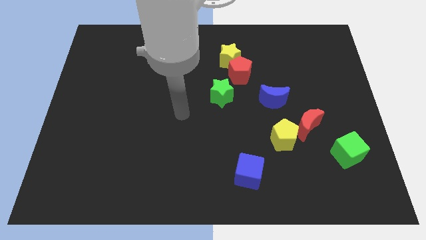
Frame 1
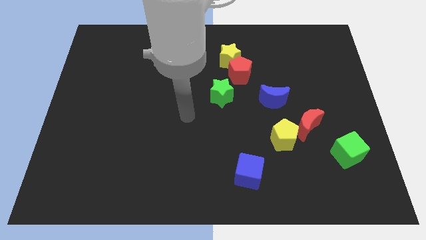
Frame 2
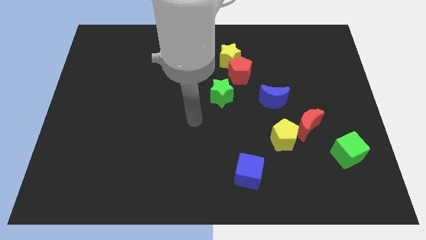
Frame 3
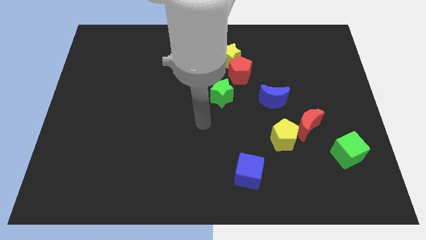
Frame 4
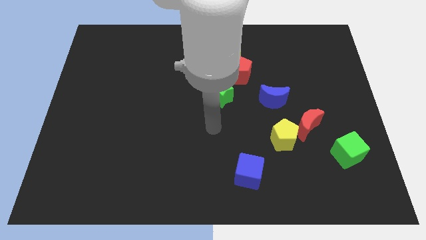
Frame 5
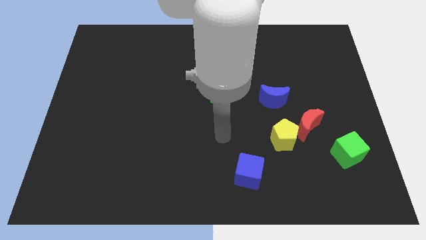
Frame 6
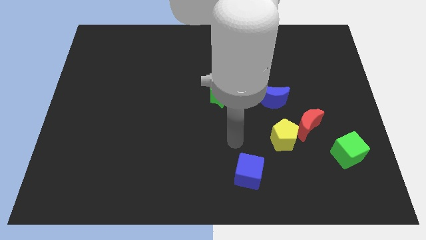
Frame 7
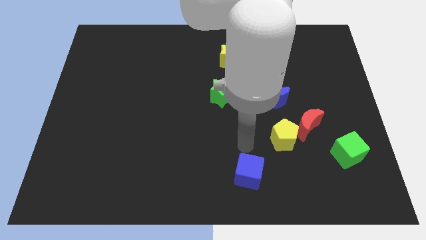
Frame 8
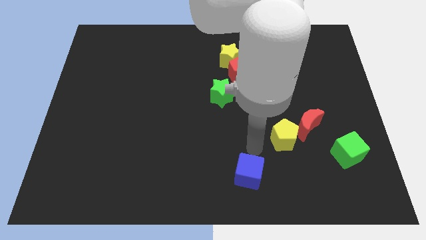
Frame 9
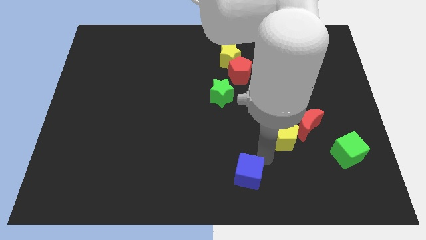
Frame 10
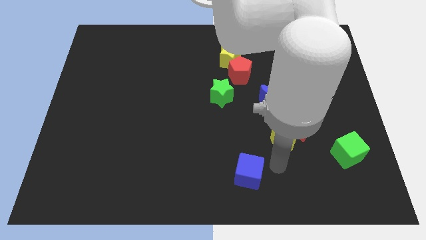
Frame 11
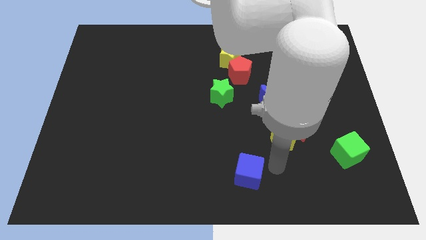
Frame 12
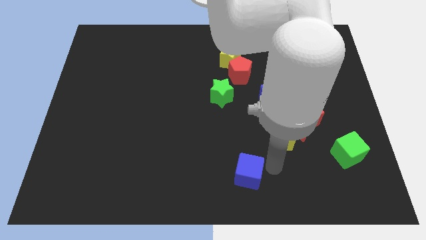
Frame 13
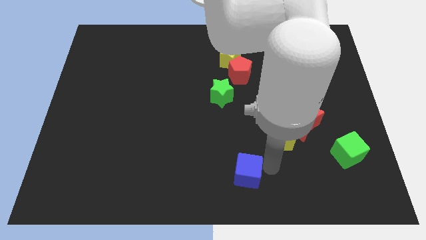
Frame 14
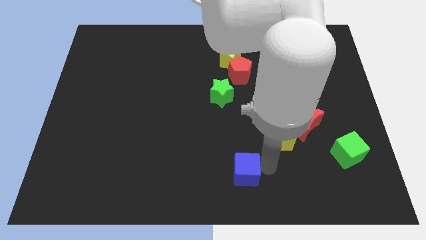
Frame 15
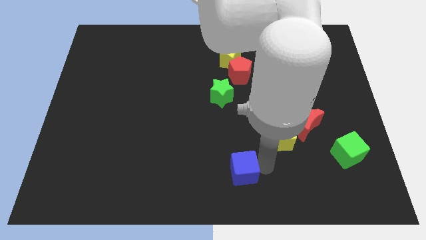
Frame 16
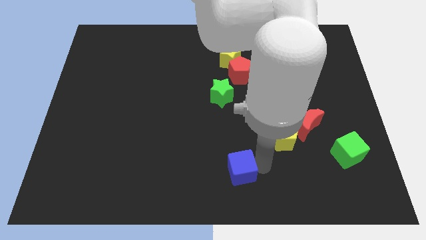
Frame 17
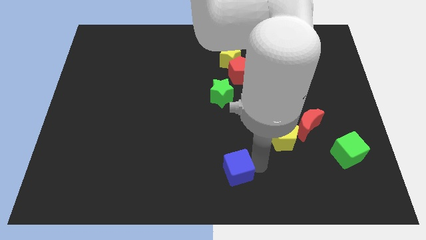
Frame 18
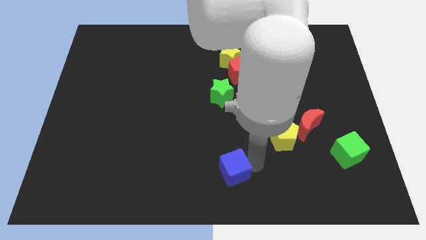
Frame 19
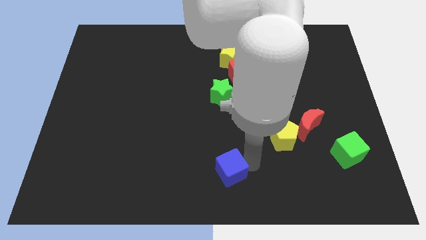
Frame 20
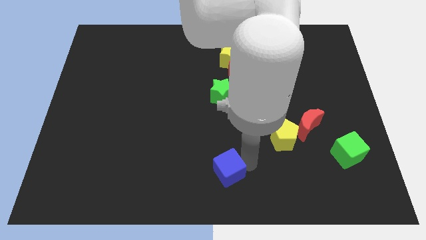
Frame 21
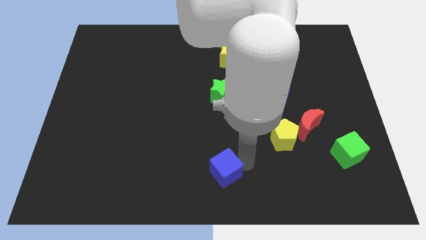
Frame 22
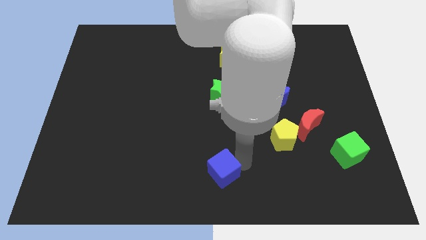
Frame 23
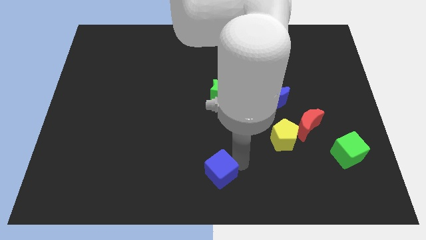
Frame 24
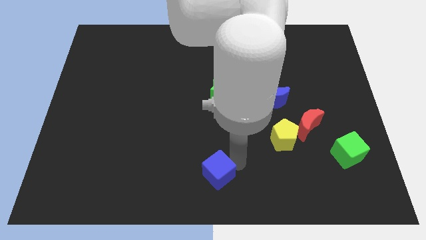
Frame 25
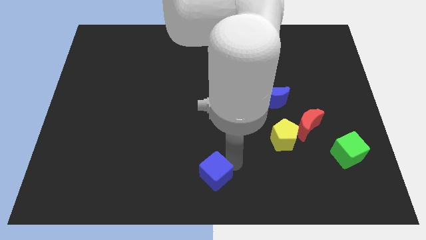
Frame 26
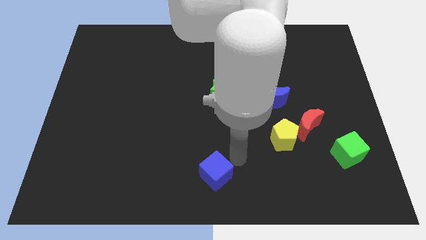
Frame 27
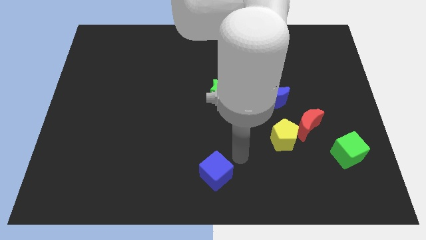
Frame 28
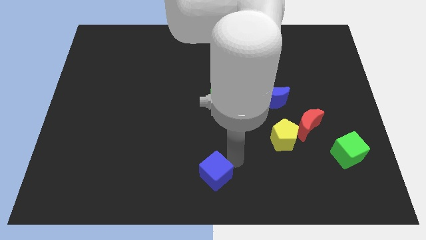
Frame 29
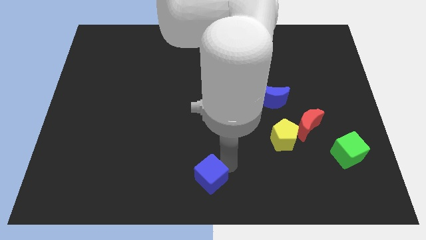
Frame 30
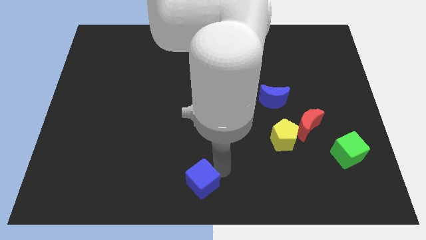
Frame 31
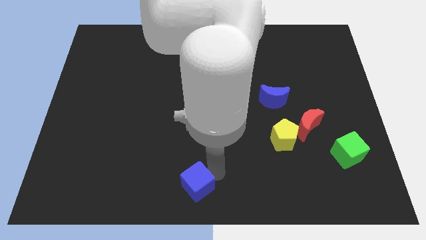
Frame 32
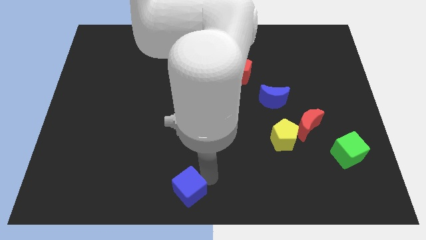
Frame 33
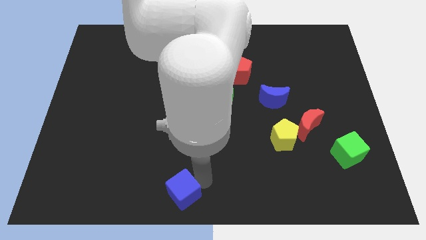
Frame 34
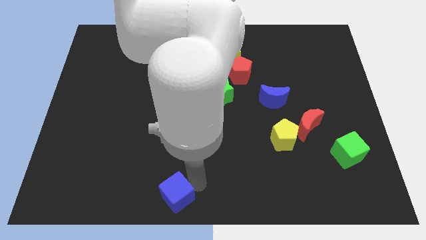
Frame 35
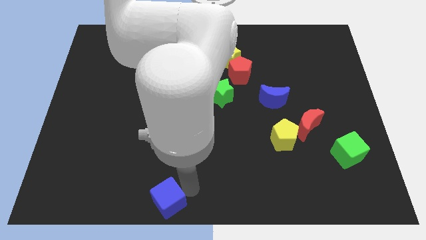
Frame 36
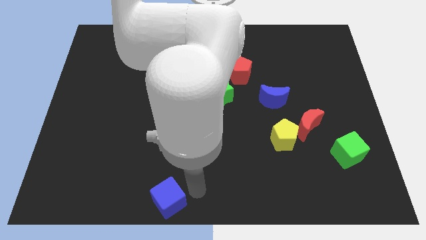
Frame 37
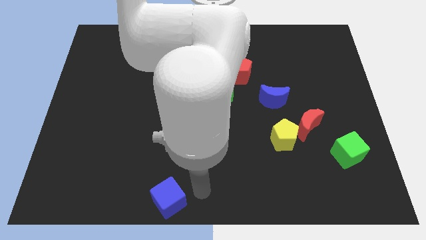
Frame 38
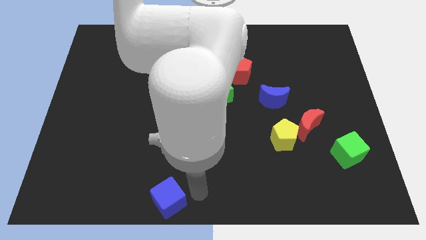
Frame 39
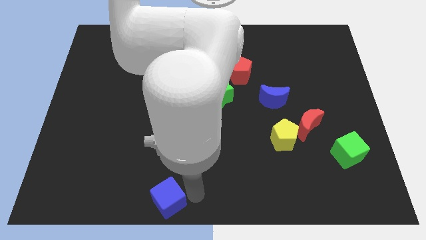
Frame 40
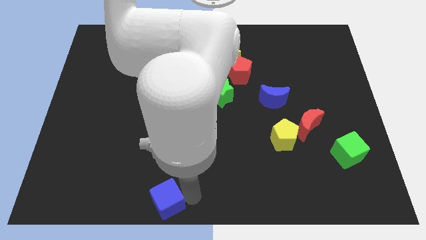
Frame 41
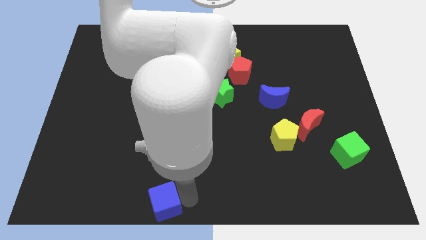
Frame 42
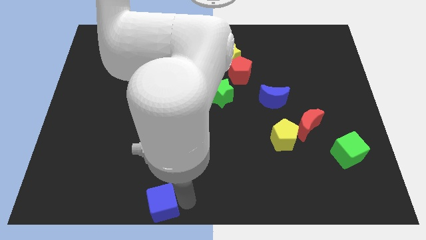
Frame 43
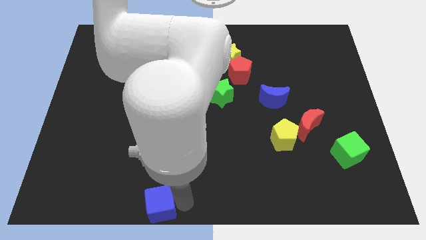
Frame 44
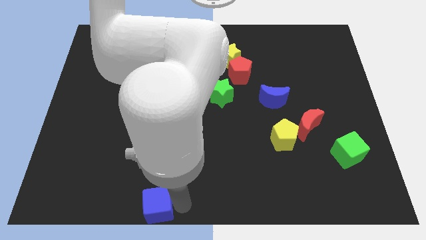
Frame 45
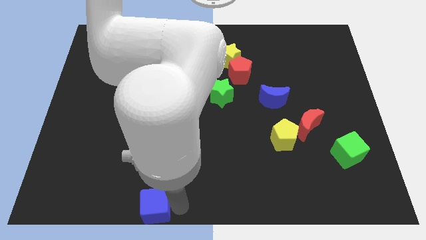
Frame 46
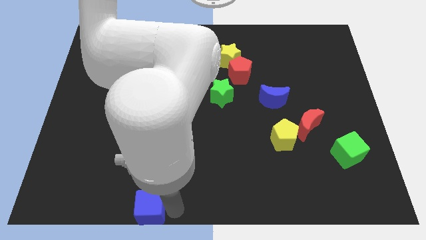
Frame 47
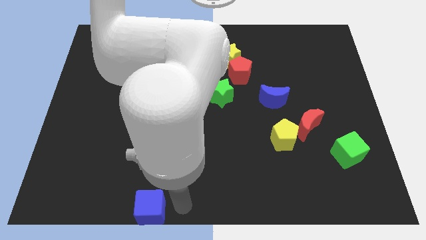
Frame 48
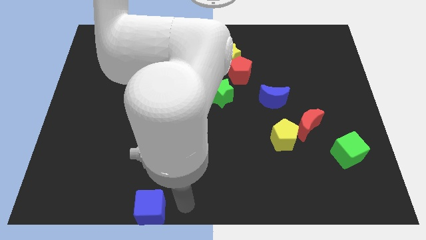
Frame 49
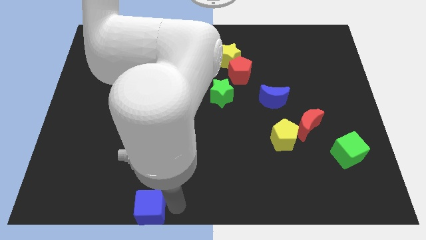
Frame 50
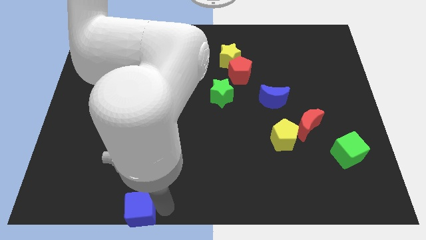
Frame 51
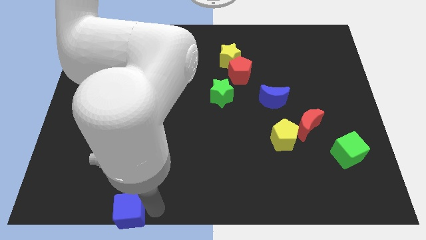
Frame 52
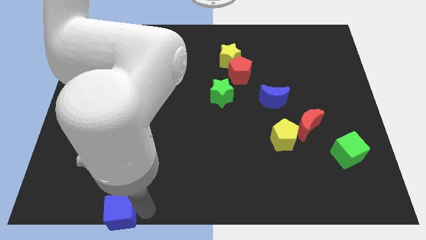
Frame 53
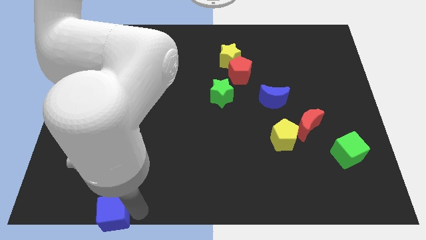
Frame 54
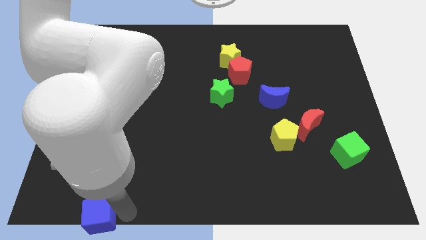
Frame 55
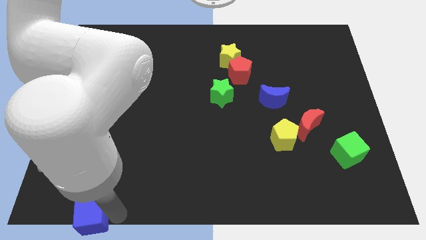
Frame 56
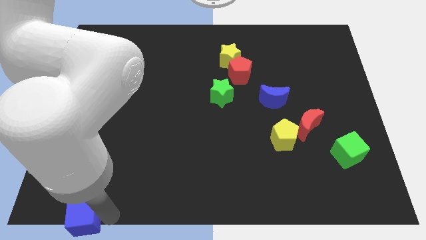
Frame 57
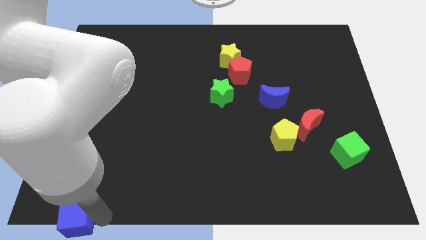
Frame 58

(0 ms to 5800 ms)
slide the blue cube to the bottom left

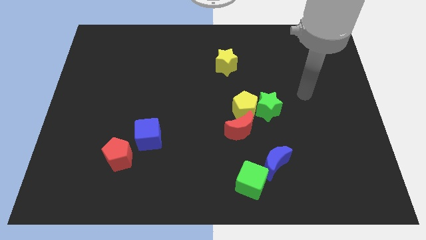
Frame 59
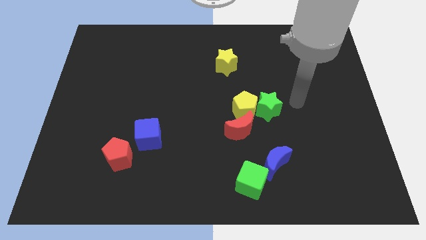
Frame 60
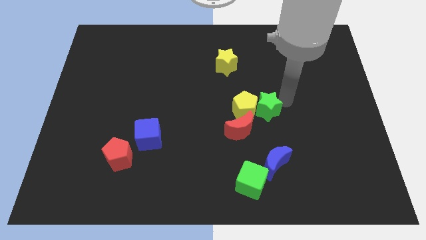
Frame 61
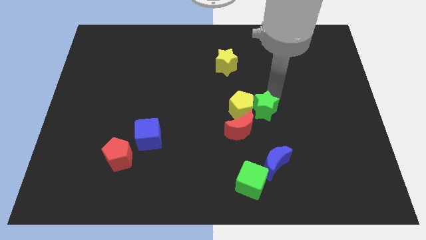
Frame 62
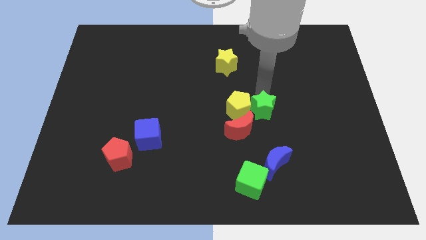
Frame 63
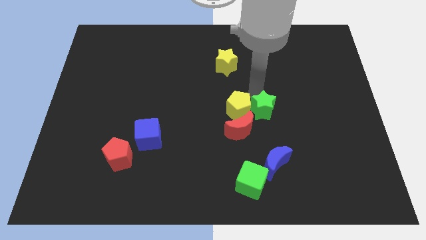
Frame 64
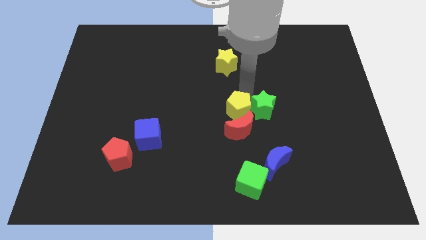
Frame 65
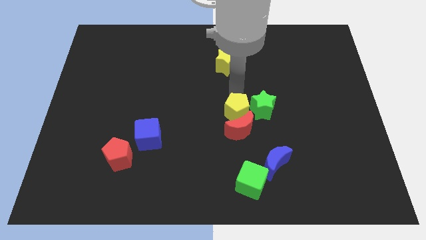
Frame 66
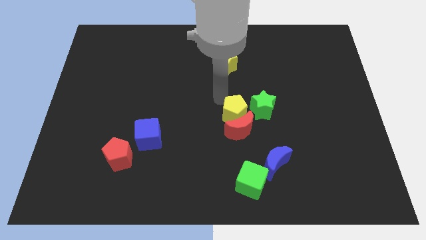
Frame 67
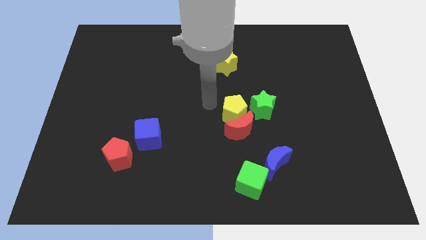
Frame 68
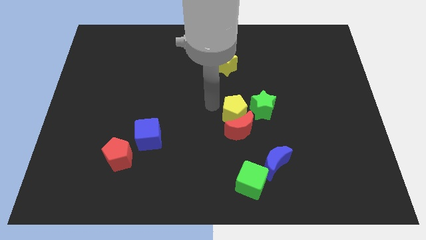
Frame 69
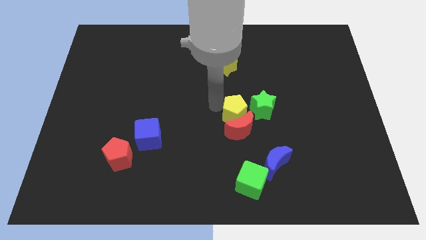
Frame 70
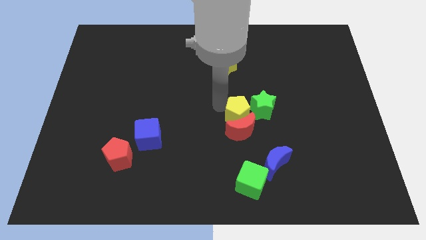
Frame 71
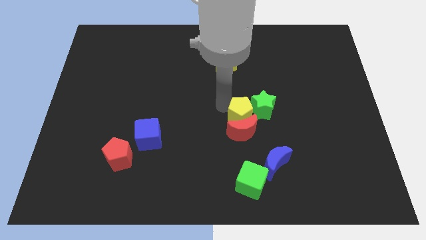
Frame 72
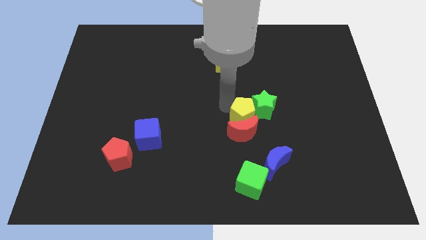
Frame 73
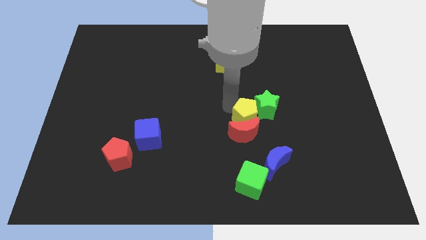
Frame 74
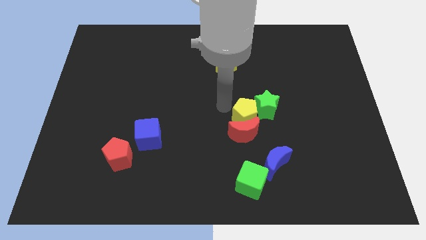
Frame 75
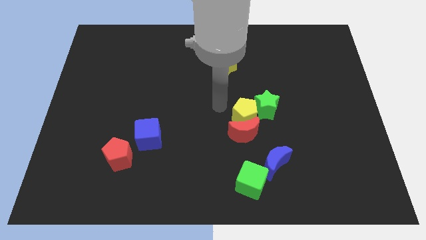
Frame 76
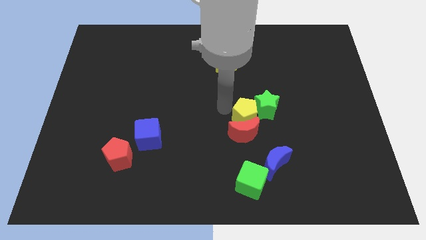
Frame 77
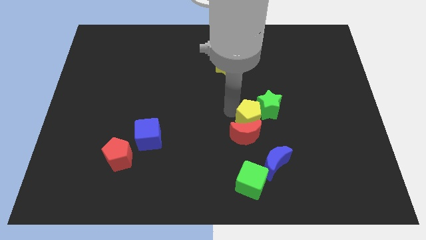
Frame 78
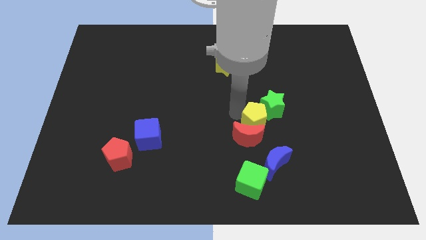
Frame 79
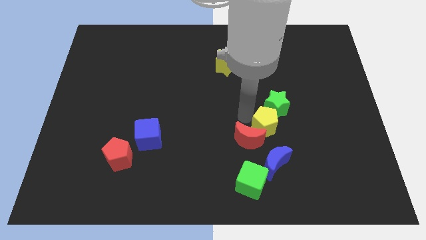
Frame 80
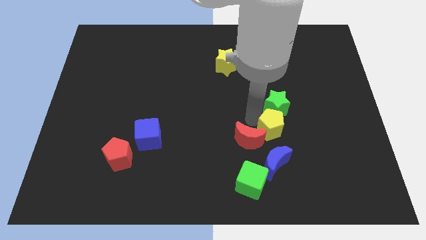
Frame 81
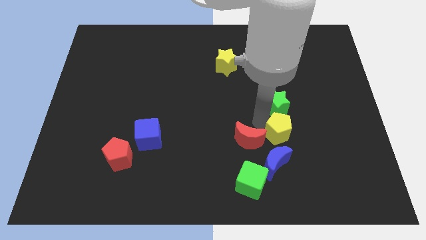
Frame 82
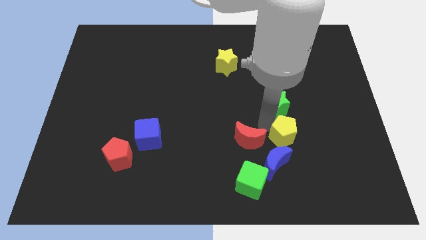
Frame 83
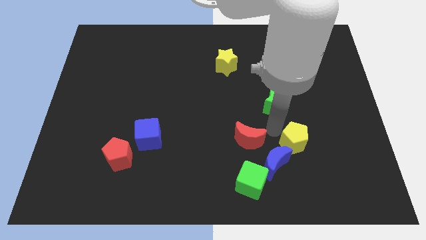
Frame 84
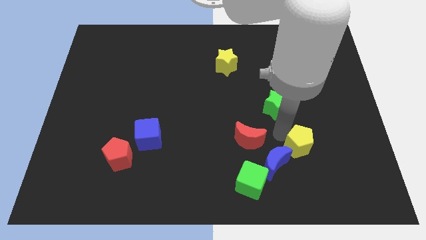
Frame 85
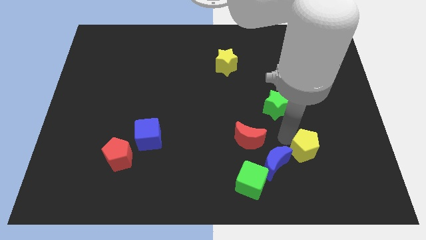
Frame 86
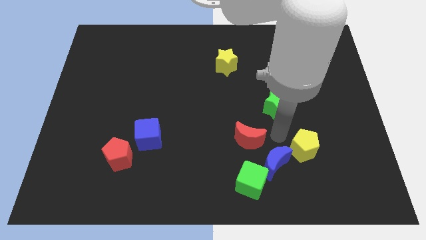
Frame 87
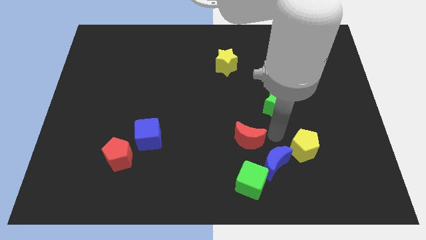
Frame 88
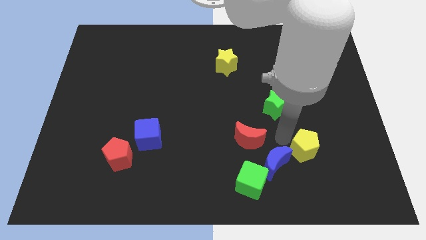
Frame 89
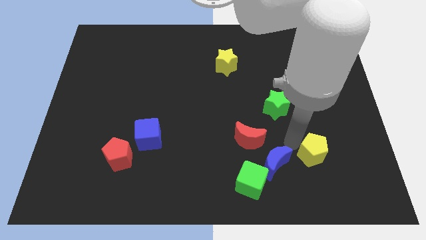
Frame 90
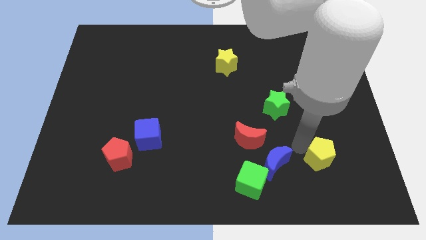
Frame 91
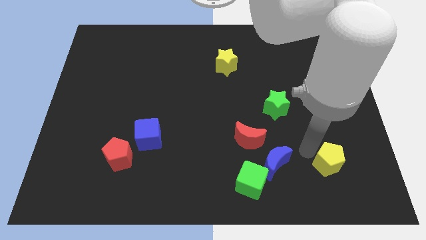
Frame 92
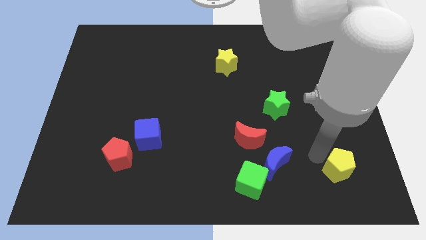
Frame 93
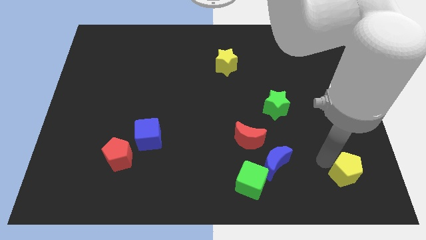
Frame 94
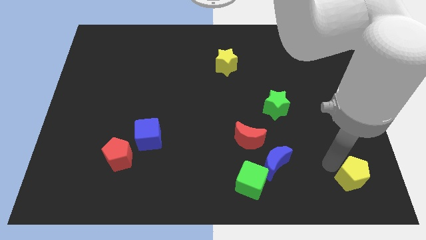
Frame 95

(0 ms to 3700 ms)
put the yellow pentagon to the lower right corner
